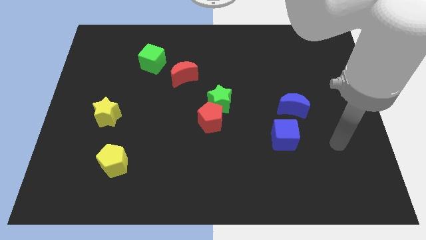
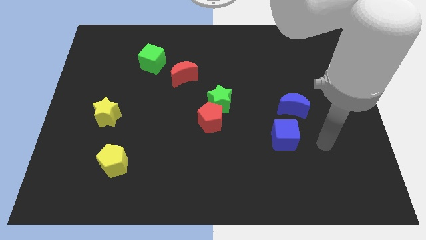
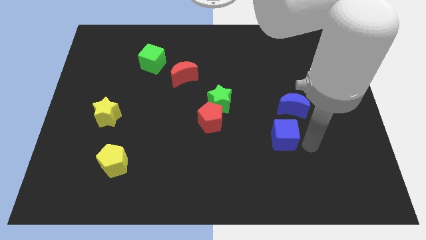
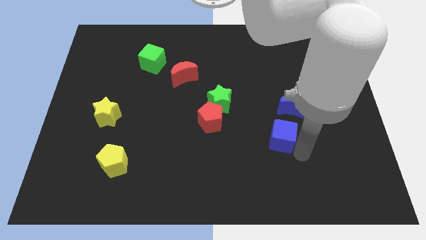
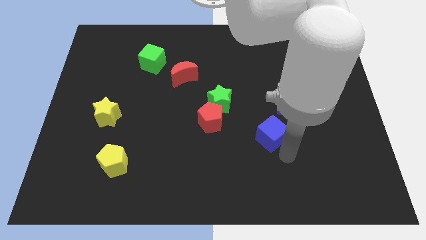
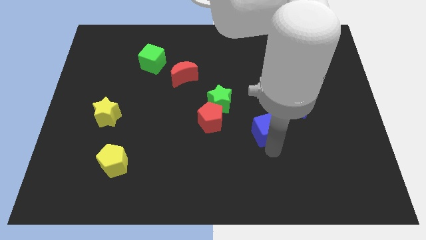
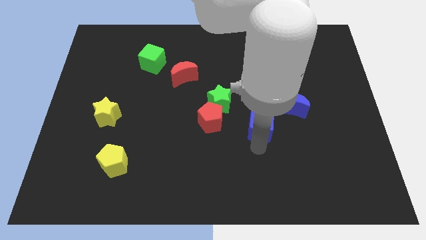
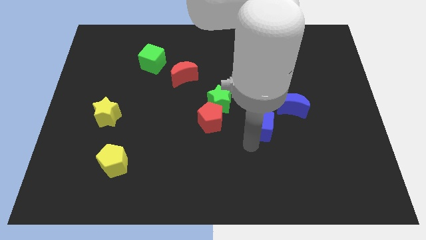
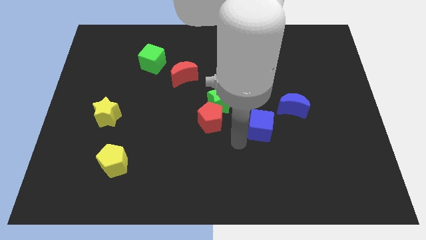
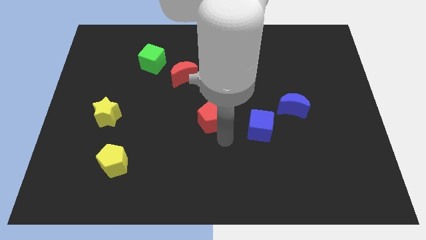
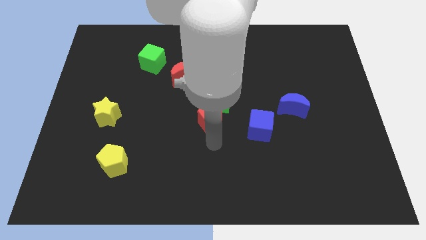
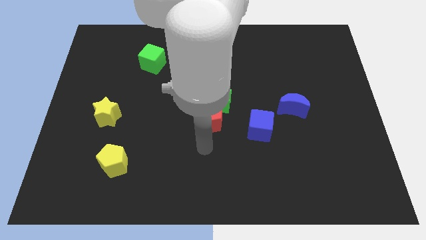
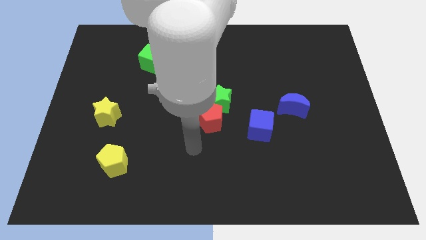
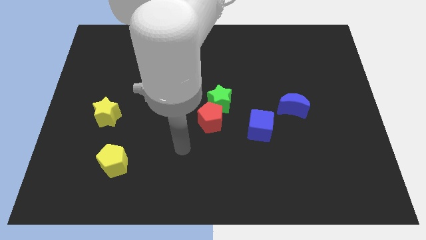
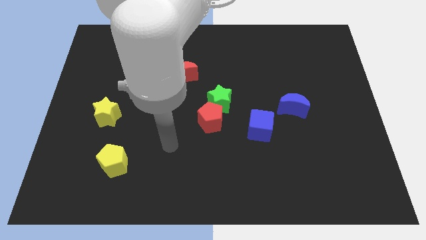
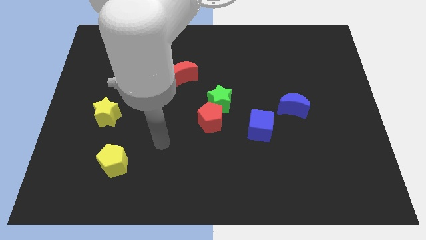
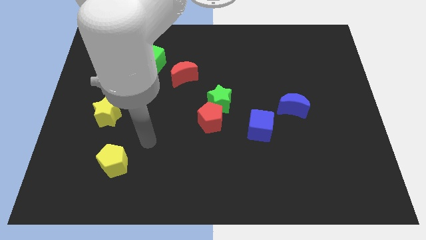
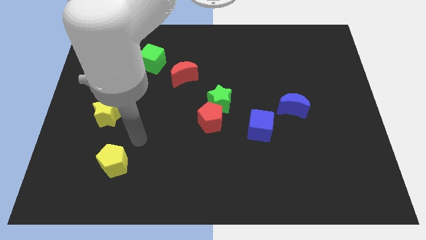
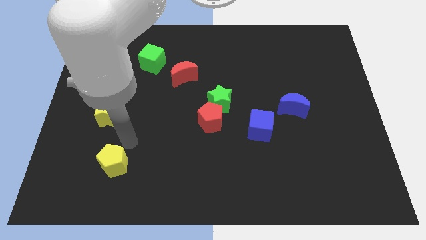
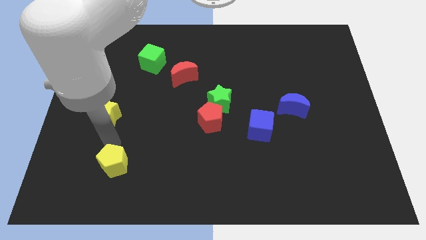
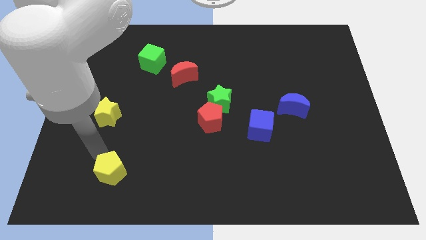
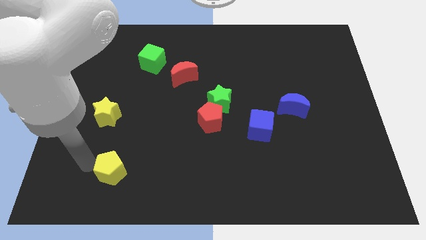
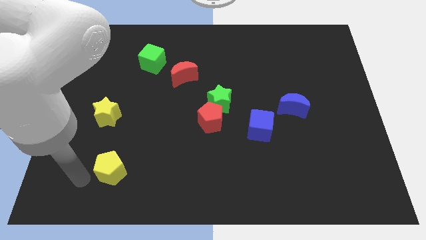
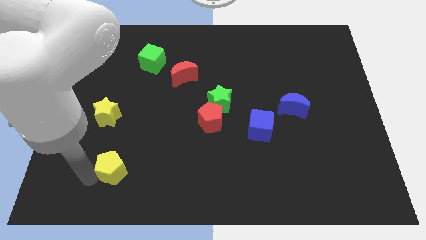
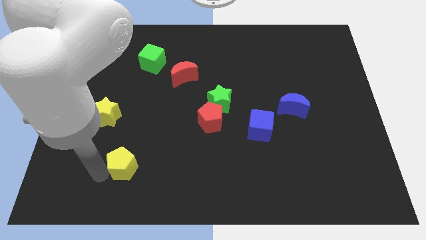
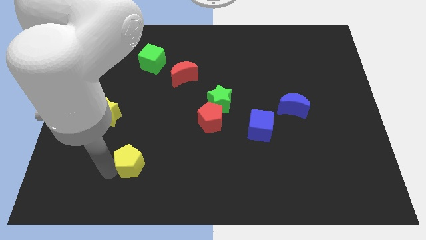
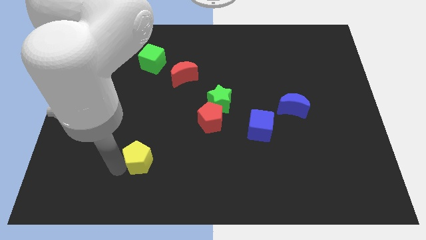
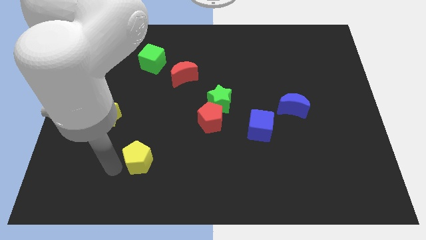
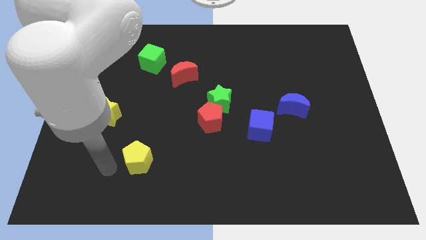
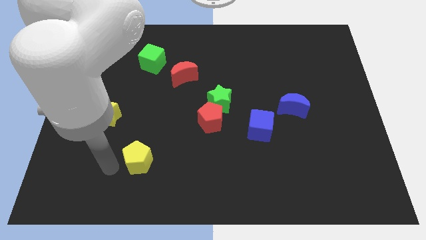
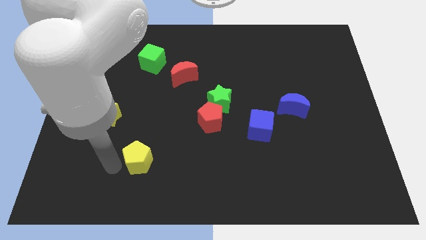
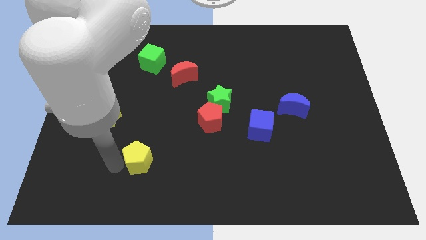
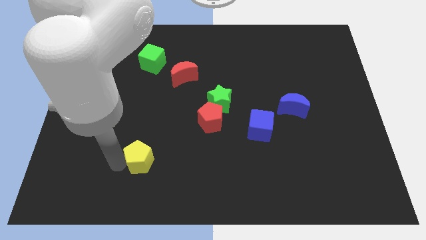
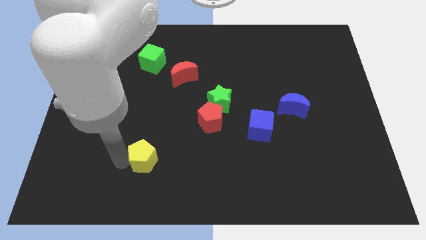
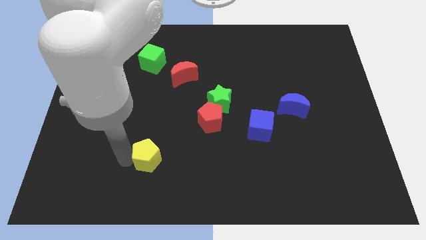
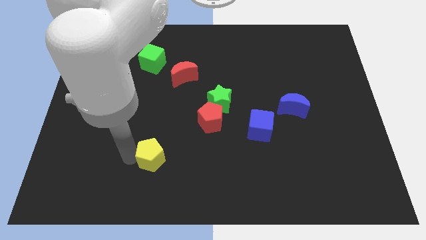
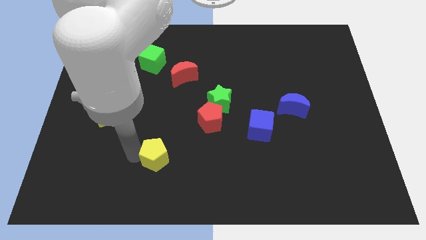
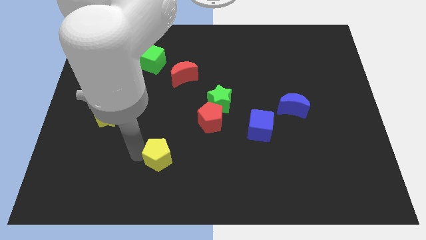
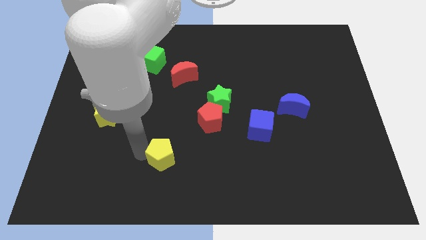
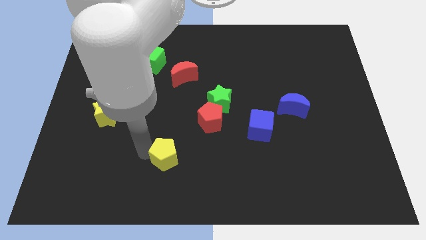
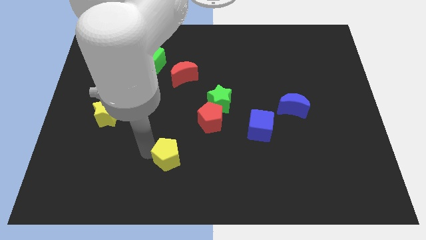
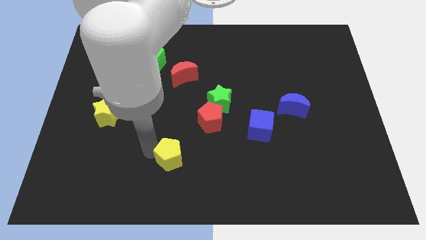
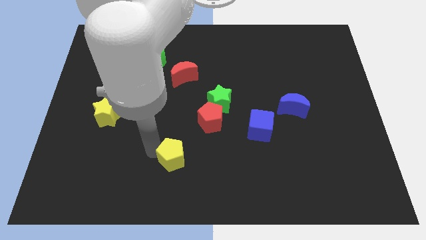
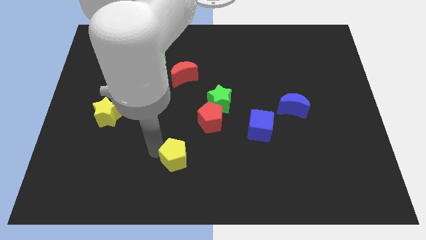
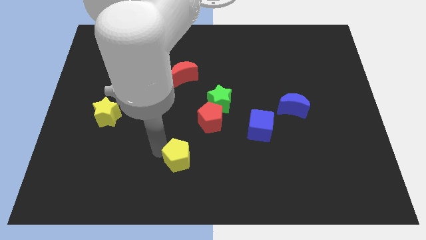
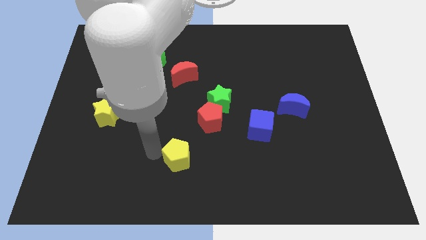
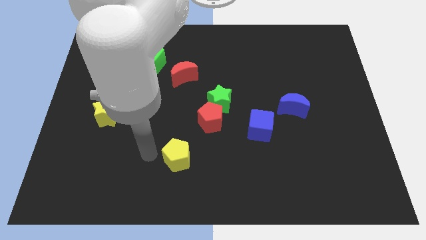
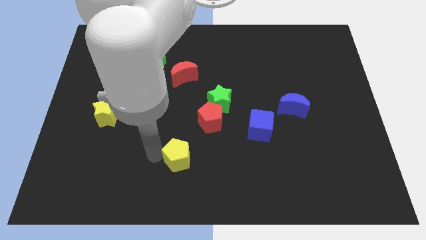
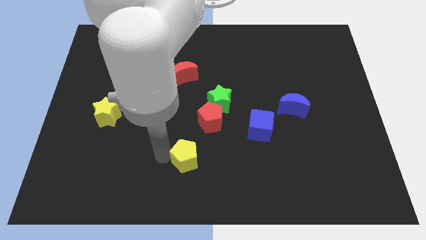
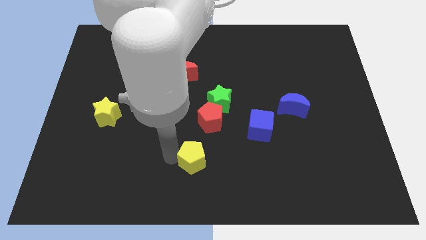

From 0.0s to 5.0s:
push the yellow pentagon below the red pentagon

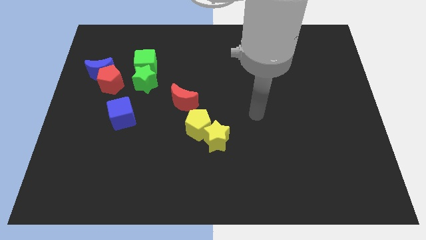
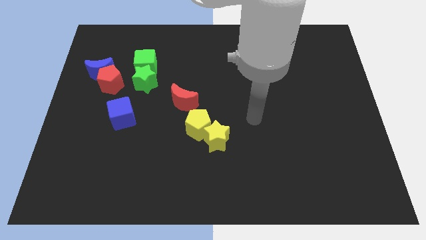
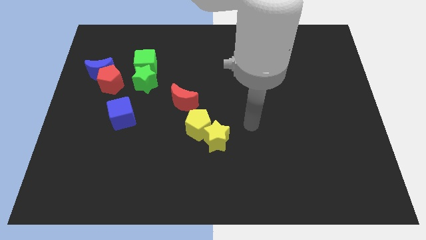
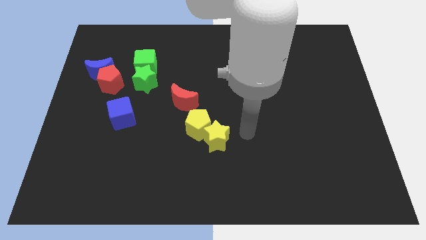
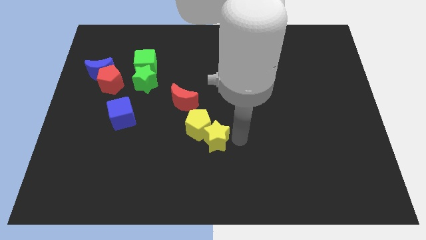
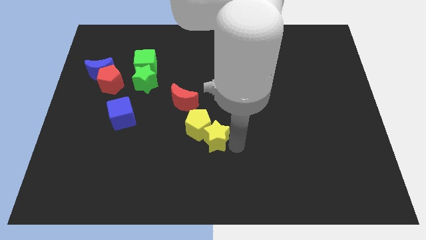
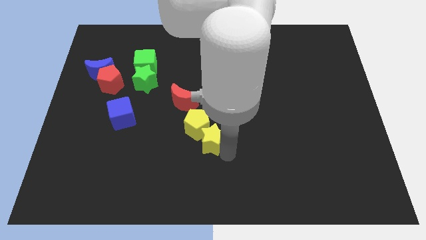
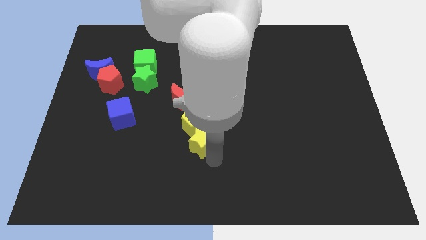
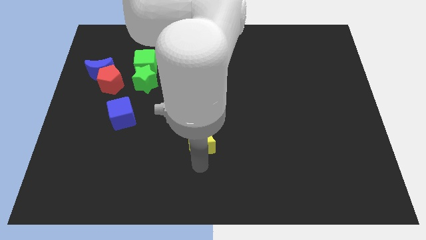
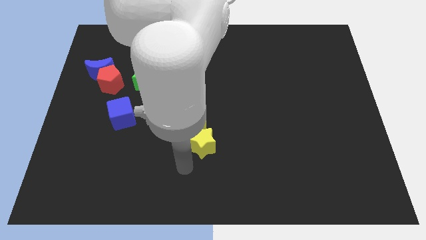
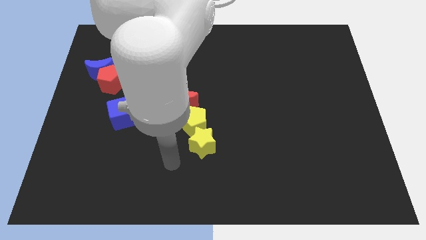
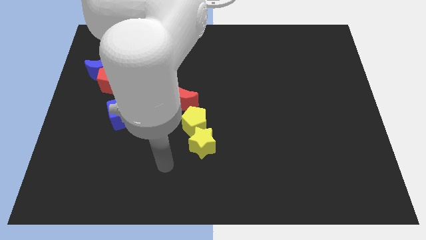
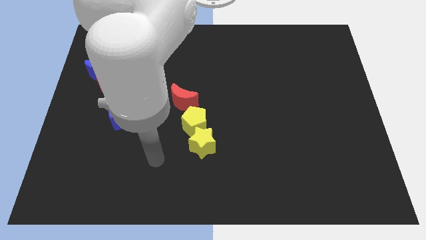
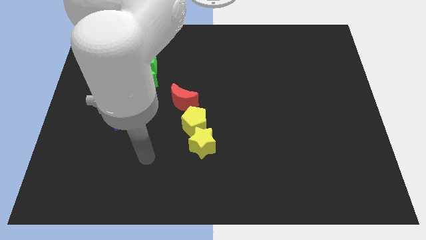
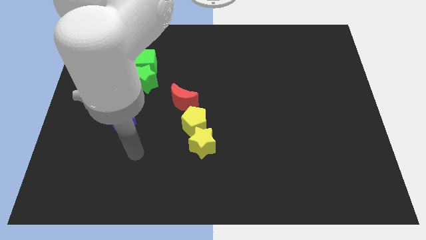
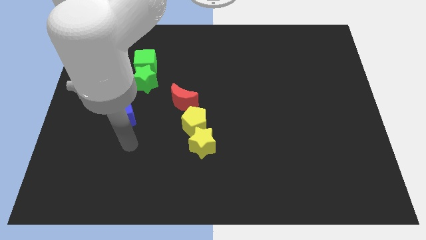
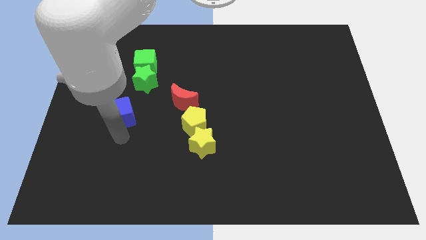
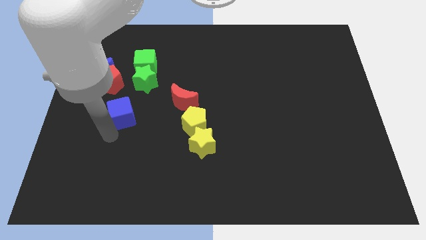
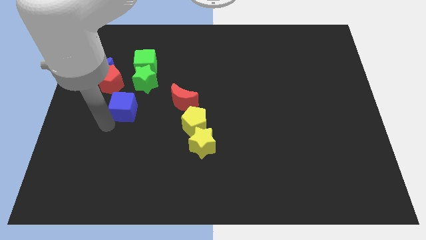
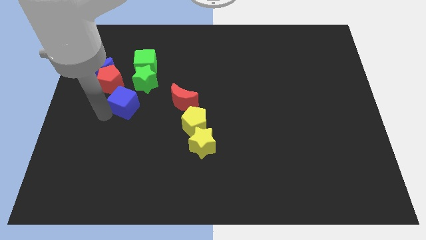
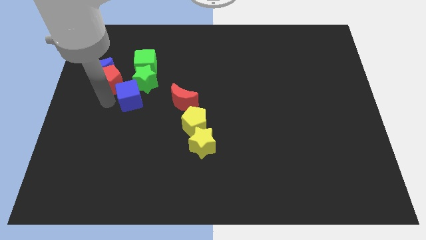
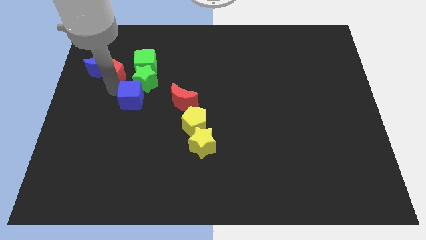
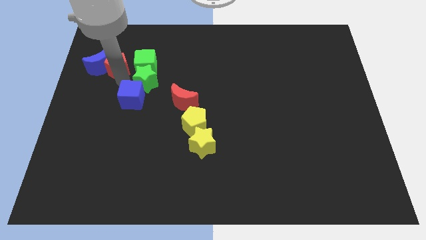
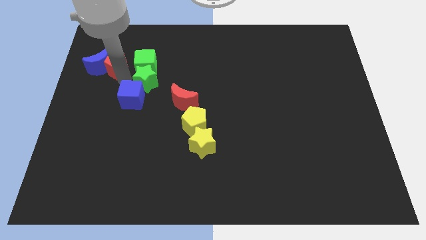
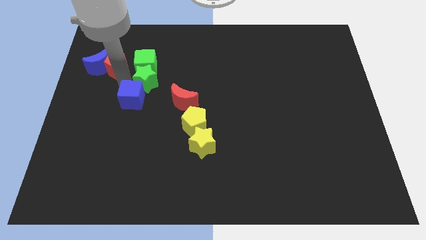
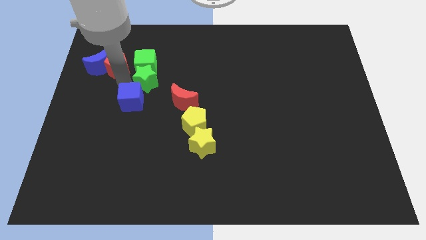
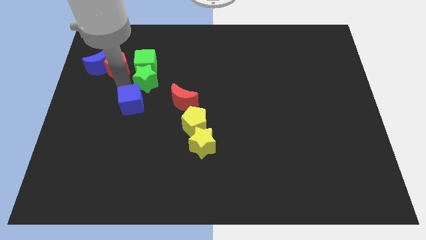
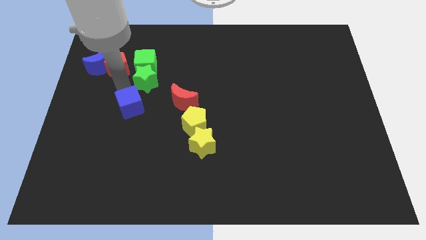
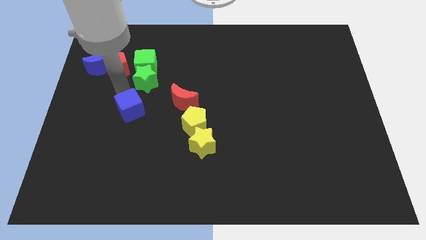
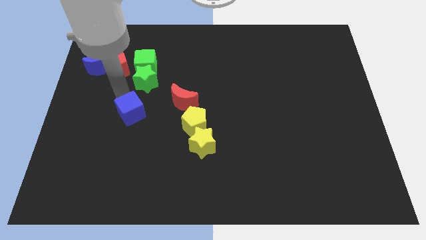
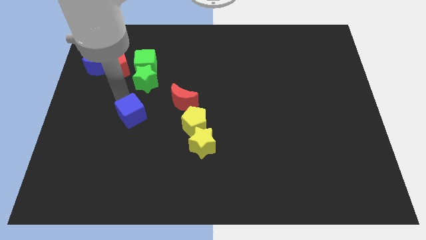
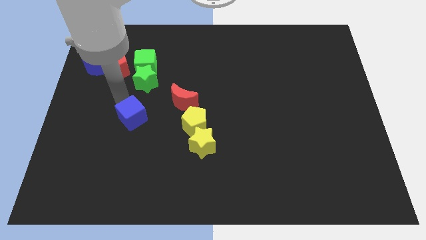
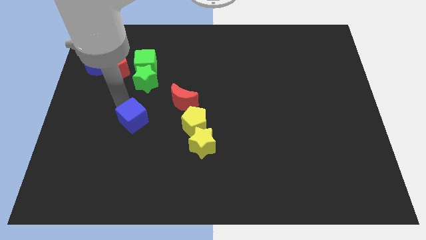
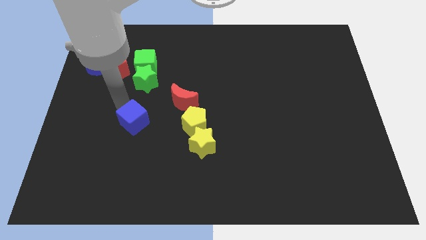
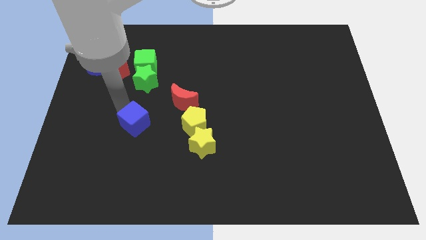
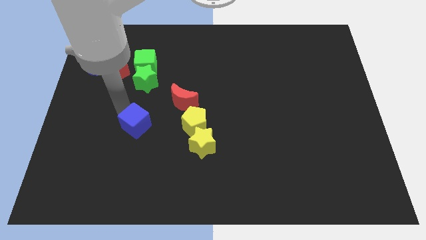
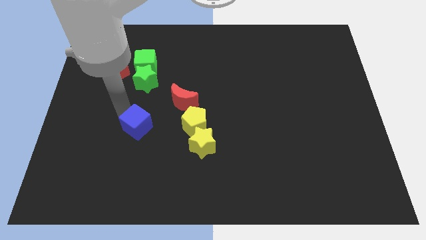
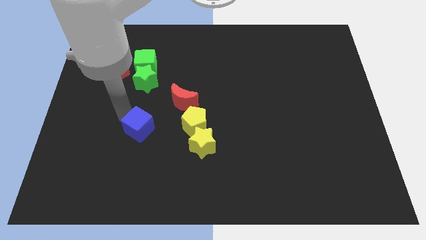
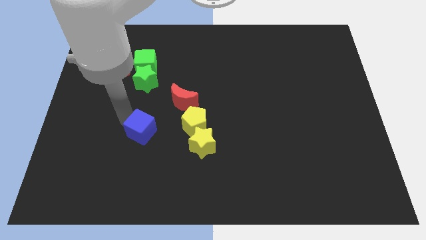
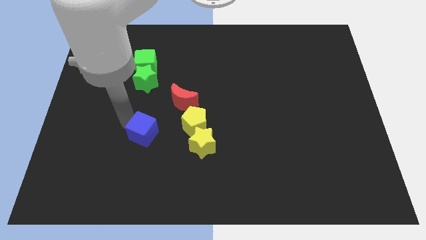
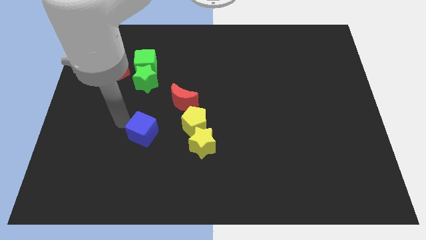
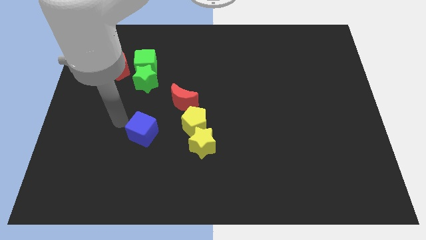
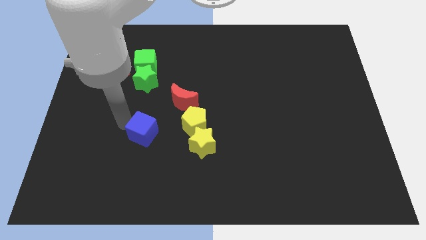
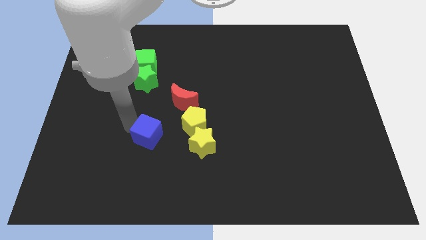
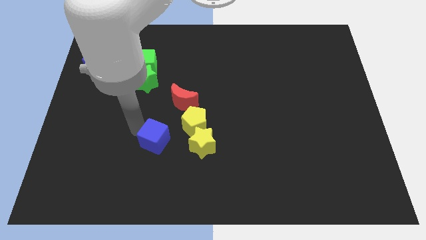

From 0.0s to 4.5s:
slide the blue cube diagonally down and to the left of the yellow pentagon
